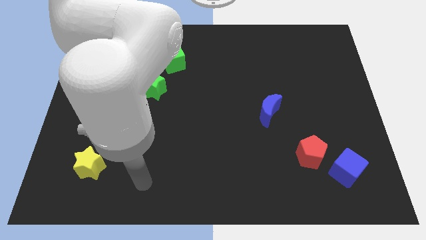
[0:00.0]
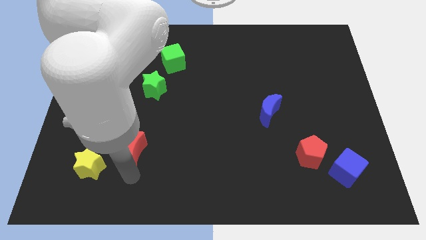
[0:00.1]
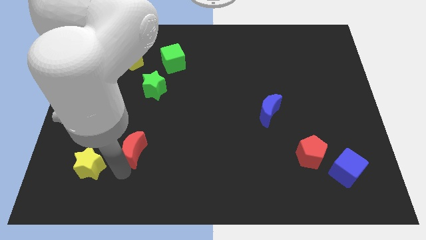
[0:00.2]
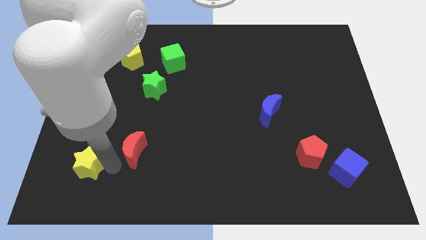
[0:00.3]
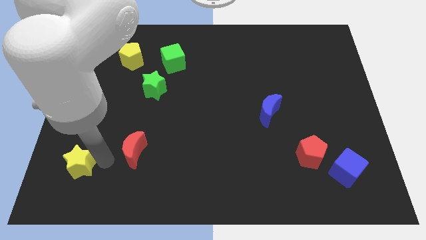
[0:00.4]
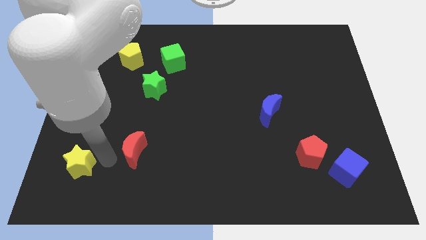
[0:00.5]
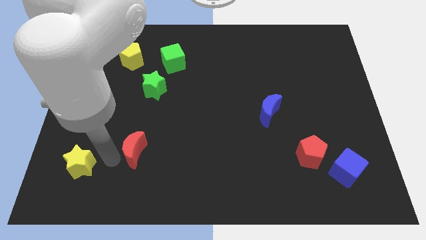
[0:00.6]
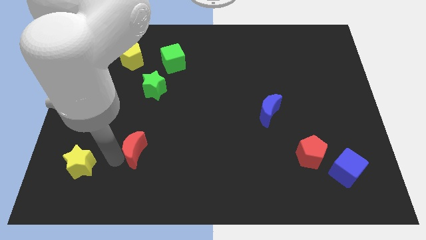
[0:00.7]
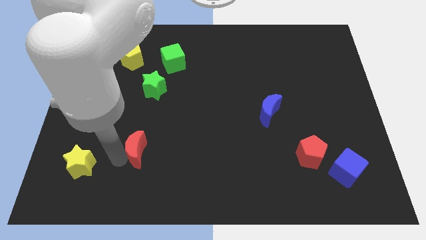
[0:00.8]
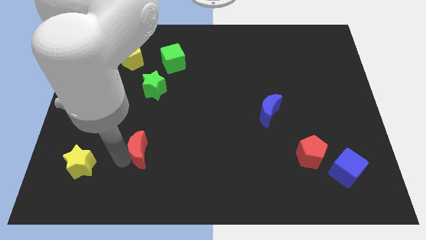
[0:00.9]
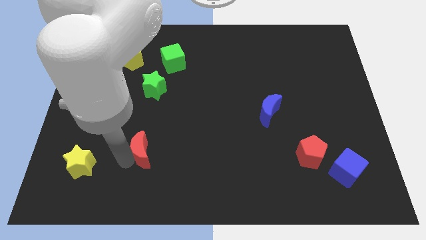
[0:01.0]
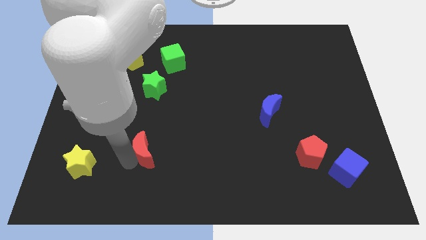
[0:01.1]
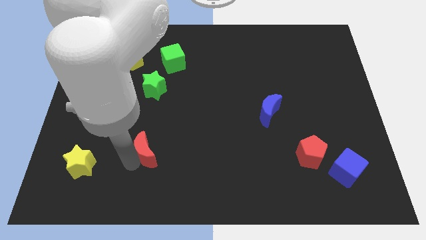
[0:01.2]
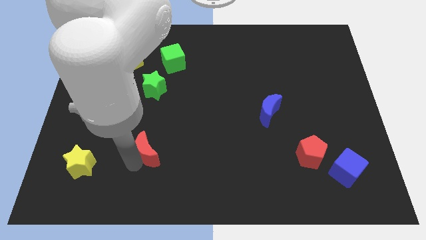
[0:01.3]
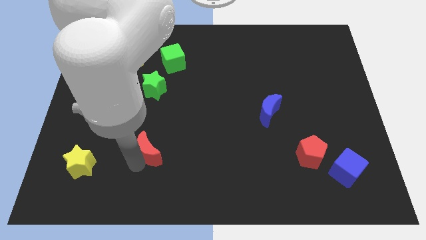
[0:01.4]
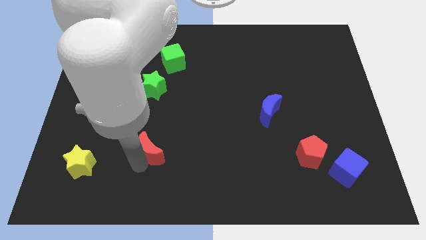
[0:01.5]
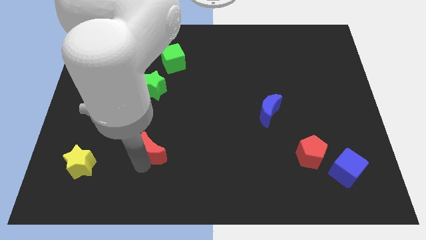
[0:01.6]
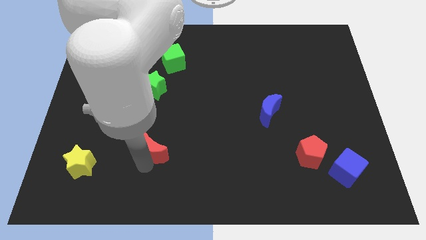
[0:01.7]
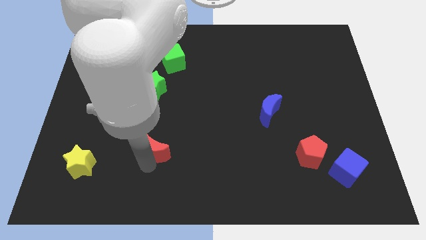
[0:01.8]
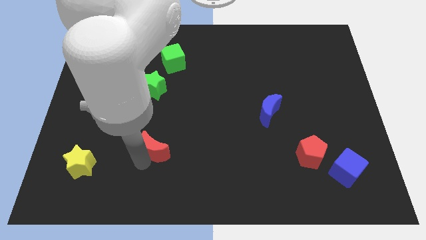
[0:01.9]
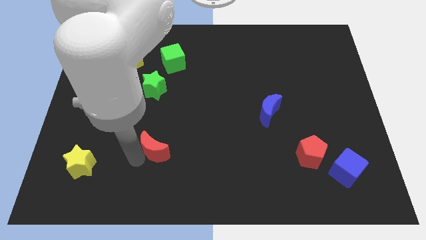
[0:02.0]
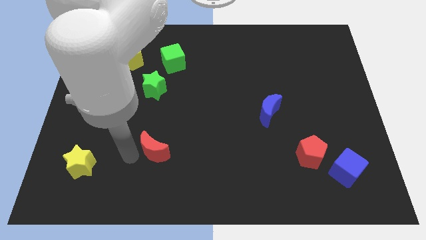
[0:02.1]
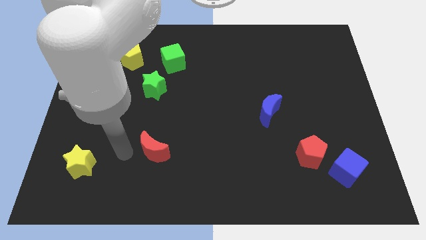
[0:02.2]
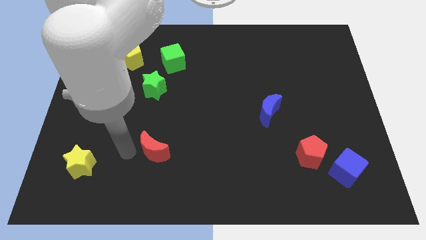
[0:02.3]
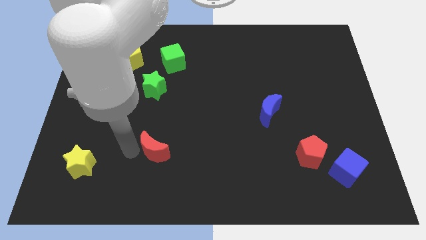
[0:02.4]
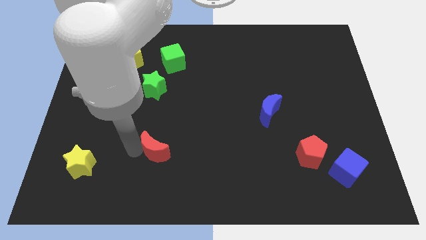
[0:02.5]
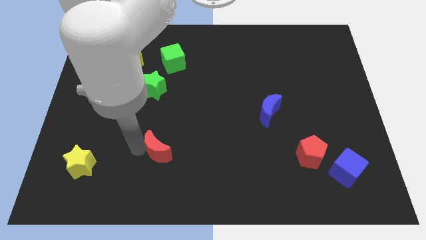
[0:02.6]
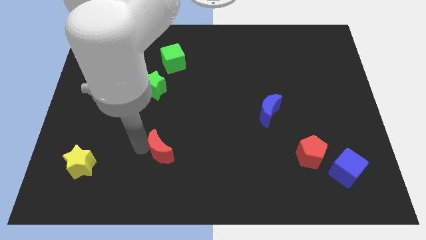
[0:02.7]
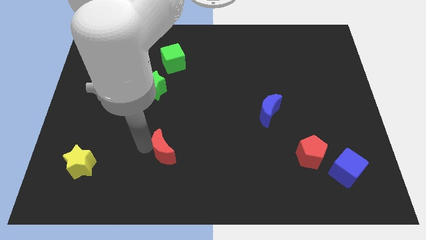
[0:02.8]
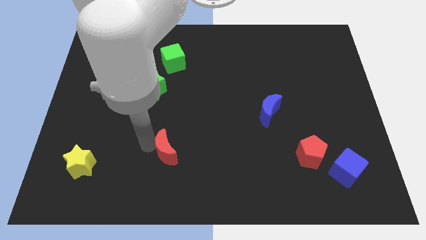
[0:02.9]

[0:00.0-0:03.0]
slightly push the red moon to the right

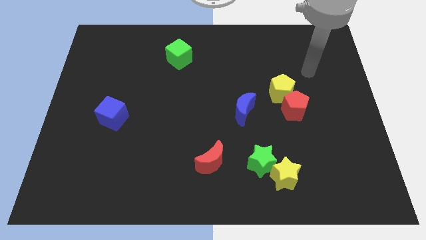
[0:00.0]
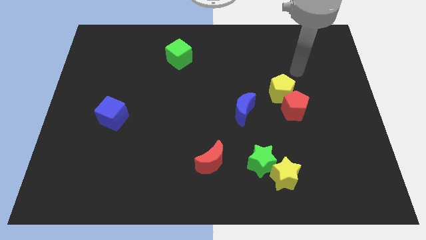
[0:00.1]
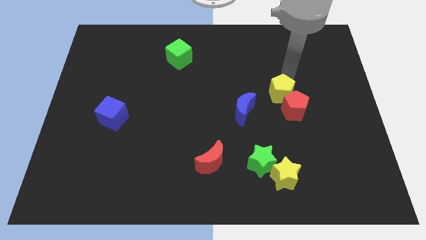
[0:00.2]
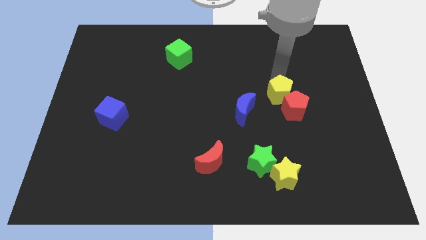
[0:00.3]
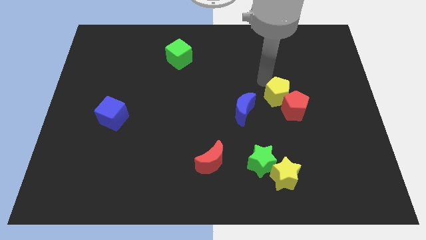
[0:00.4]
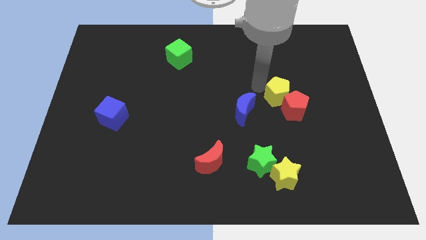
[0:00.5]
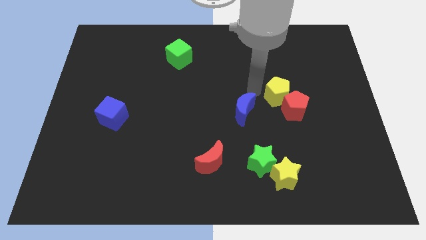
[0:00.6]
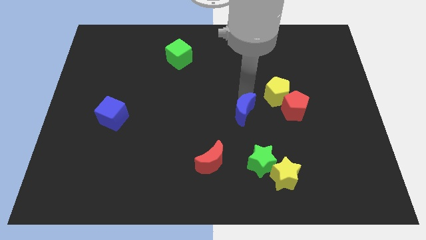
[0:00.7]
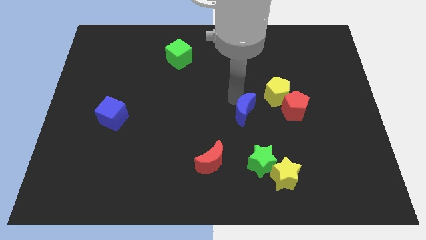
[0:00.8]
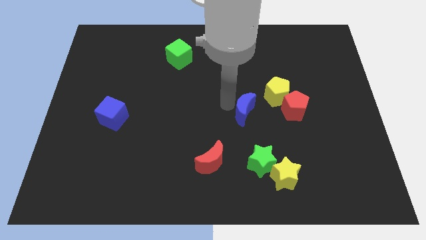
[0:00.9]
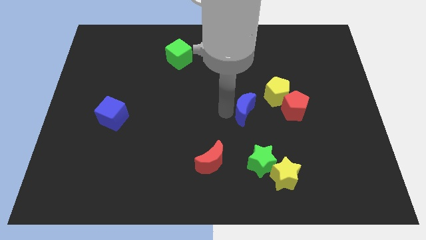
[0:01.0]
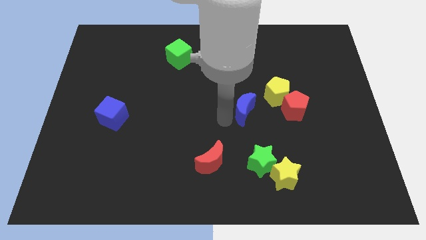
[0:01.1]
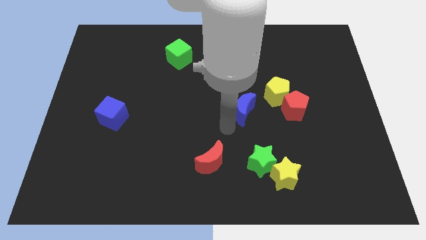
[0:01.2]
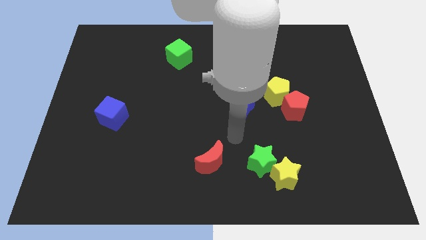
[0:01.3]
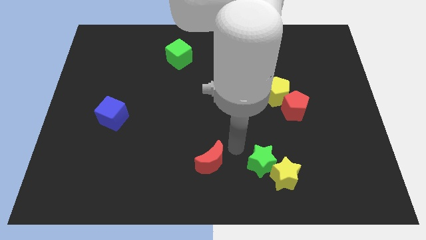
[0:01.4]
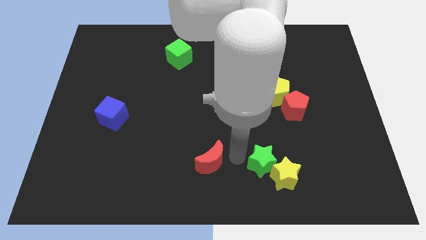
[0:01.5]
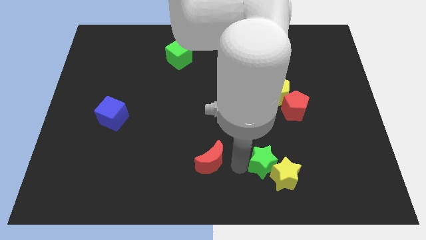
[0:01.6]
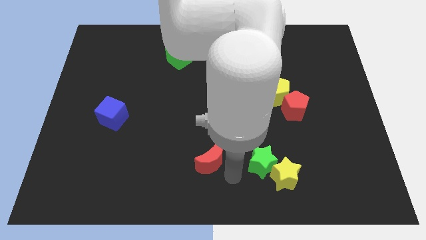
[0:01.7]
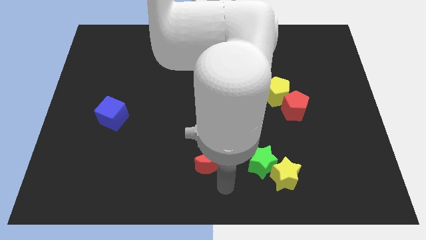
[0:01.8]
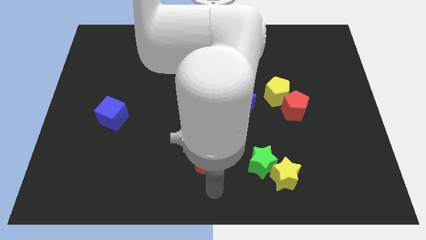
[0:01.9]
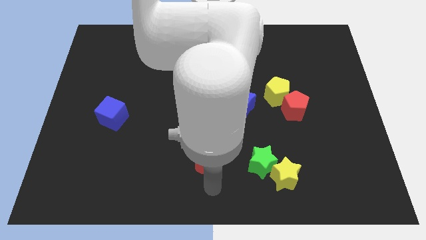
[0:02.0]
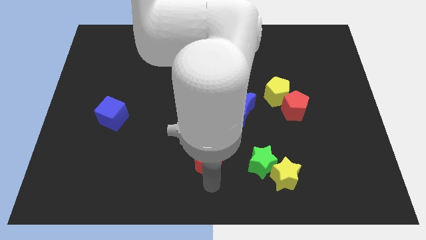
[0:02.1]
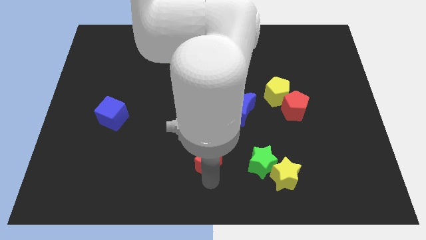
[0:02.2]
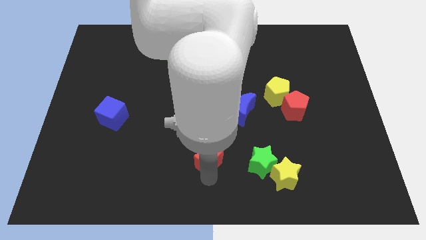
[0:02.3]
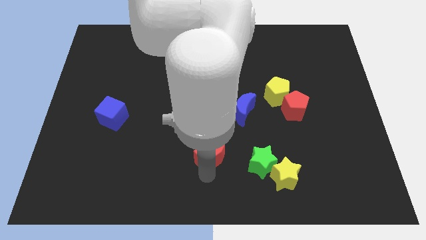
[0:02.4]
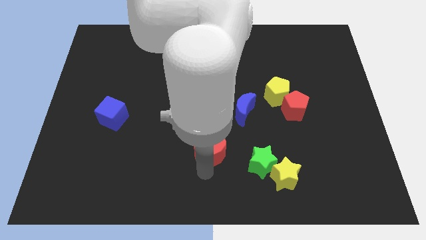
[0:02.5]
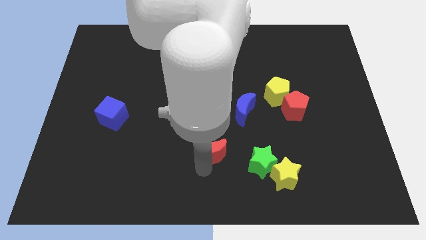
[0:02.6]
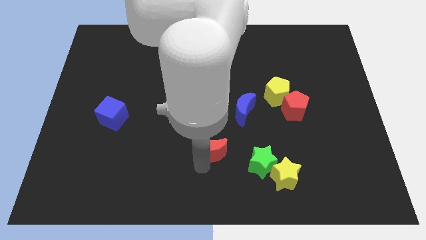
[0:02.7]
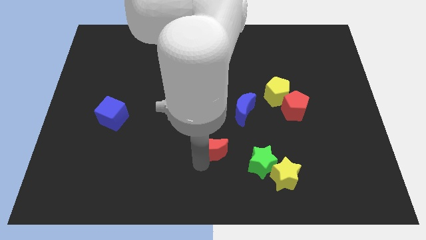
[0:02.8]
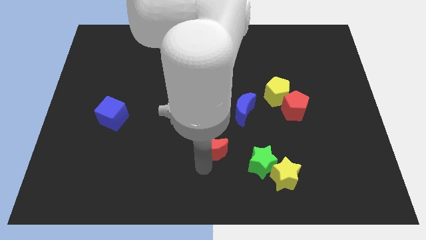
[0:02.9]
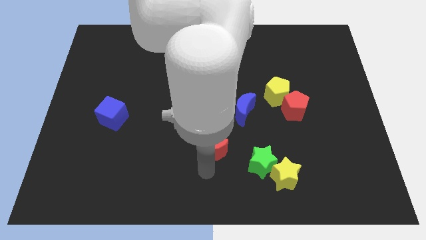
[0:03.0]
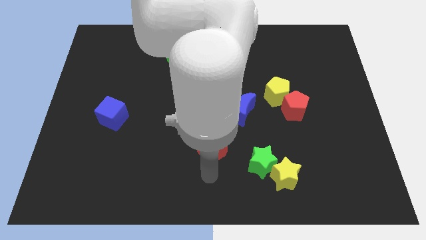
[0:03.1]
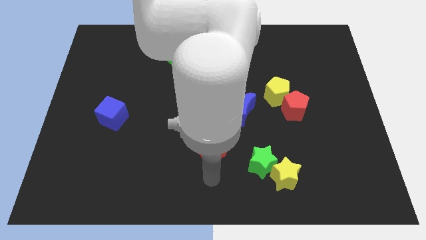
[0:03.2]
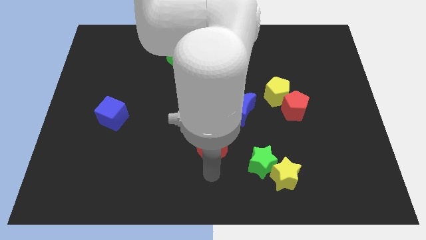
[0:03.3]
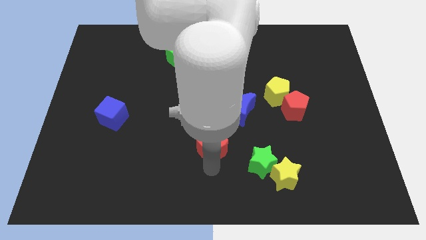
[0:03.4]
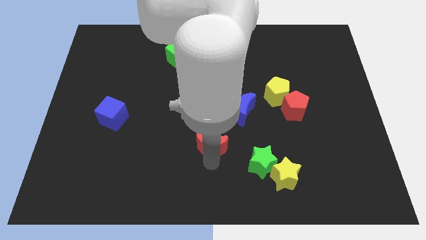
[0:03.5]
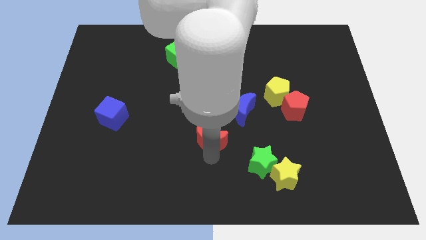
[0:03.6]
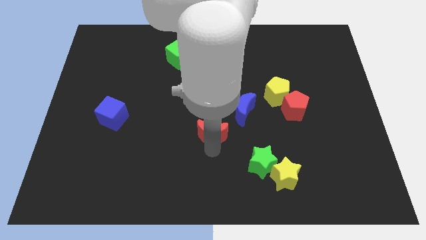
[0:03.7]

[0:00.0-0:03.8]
slightly slide the red moon up

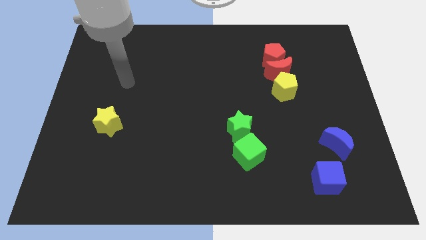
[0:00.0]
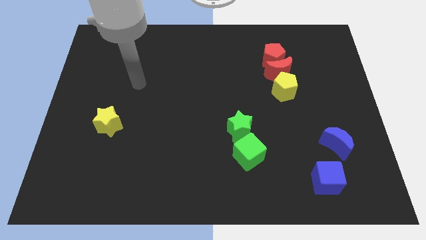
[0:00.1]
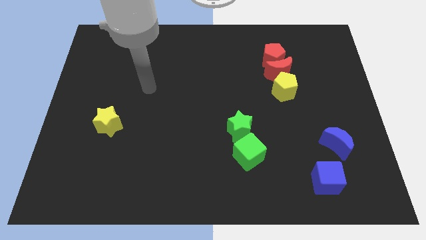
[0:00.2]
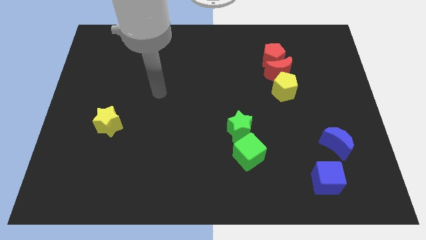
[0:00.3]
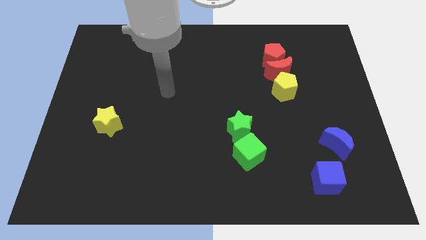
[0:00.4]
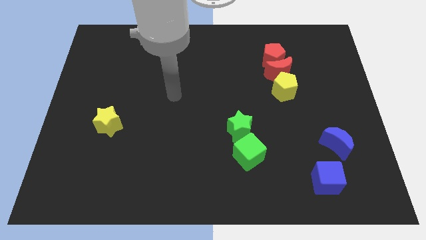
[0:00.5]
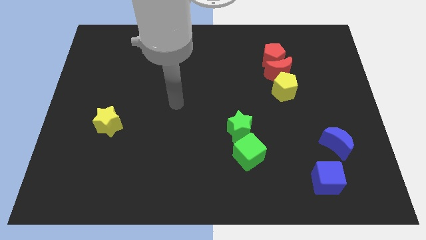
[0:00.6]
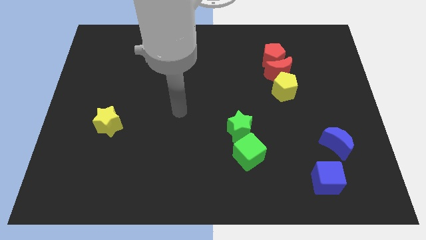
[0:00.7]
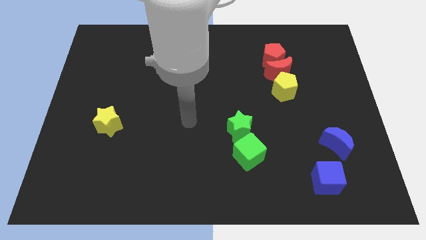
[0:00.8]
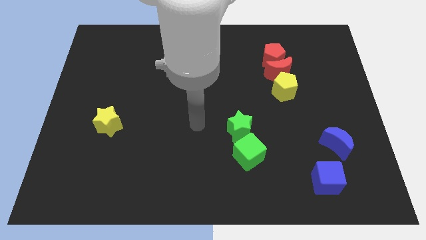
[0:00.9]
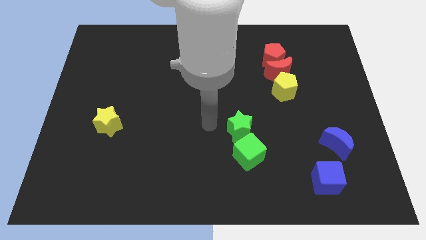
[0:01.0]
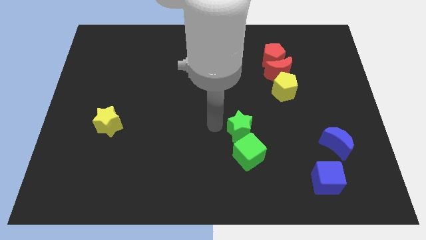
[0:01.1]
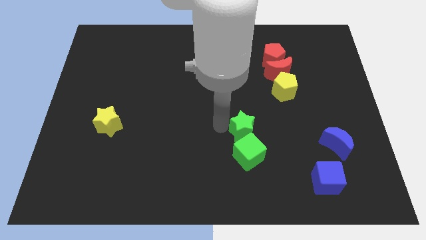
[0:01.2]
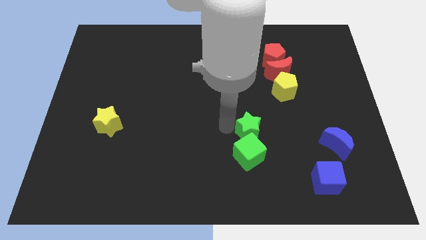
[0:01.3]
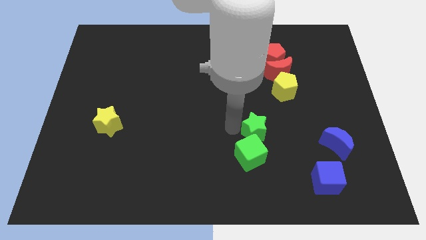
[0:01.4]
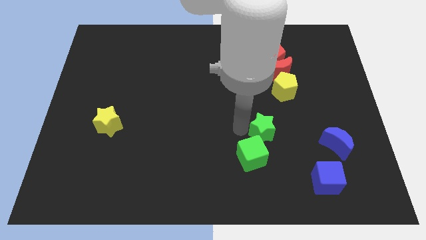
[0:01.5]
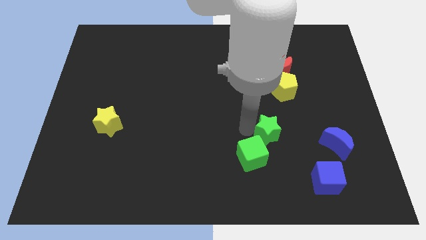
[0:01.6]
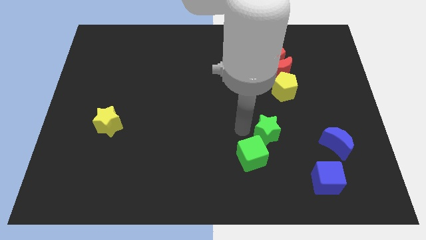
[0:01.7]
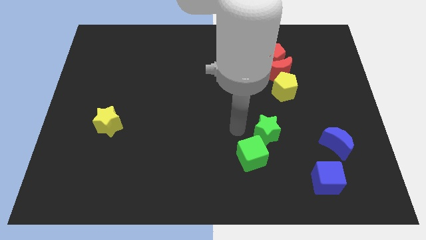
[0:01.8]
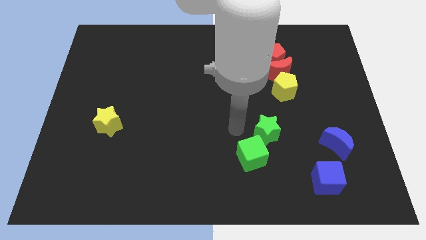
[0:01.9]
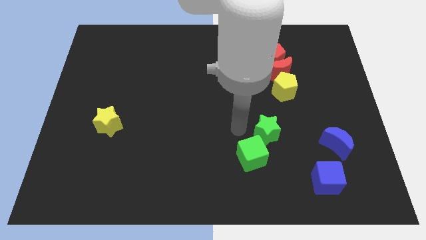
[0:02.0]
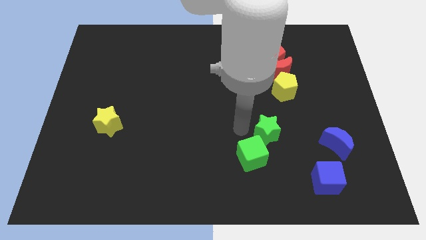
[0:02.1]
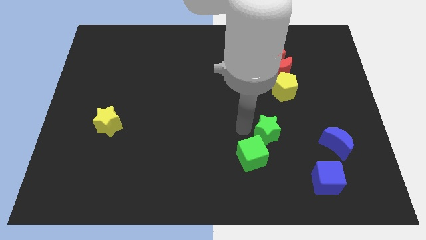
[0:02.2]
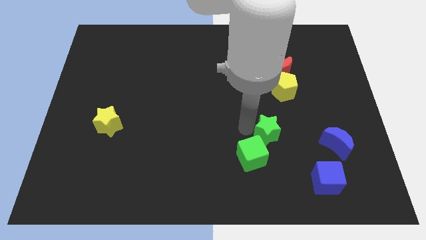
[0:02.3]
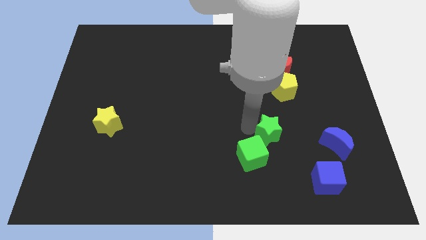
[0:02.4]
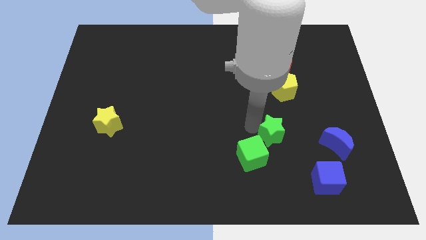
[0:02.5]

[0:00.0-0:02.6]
slightly push the green star to the right
